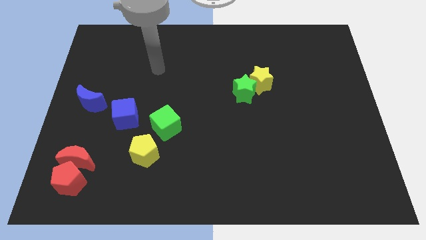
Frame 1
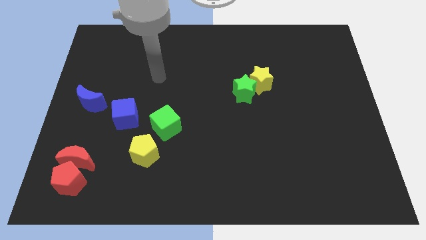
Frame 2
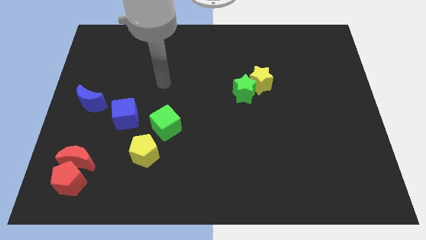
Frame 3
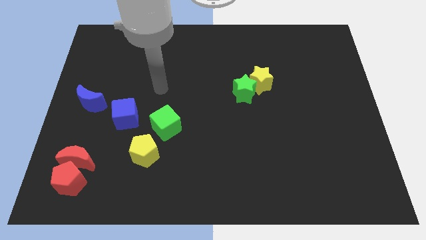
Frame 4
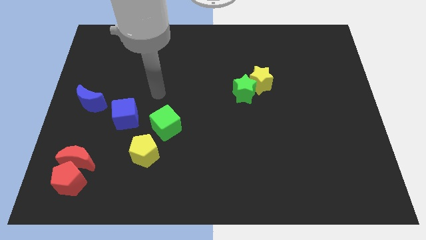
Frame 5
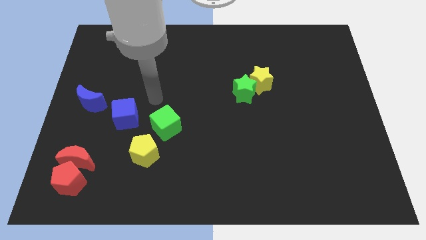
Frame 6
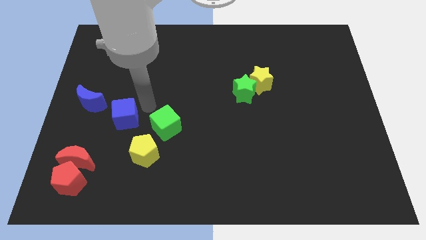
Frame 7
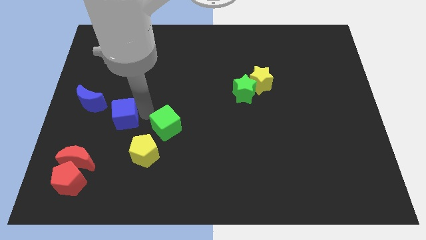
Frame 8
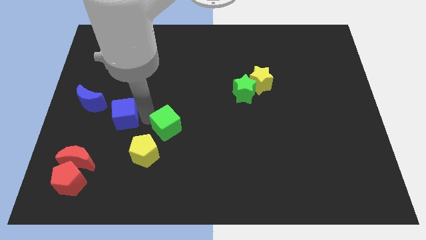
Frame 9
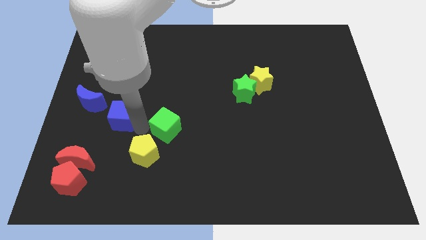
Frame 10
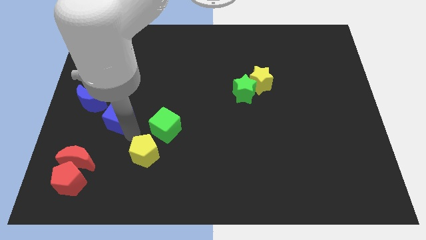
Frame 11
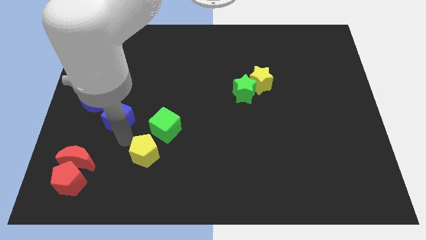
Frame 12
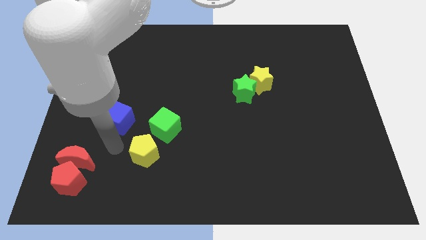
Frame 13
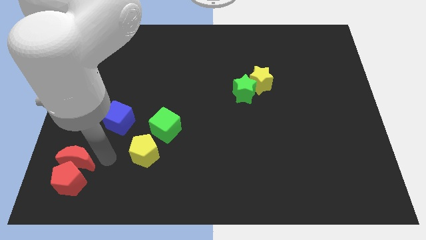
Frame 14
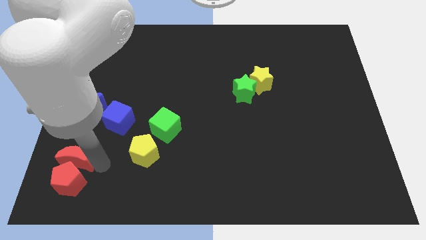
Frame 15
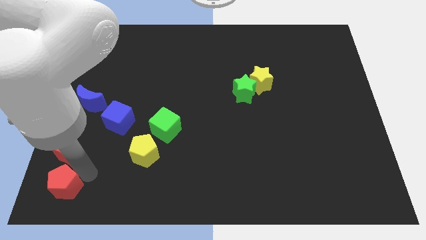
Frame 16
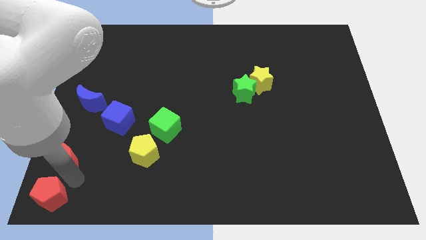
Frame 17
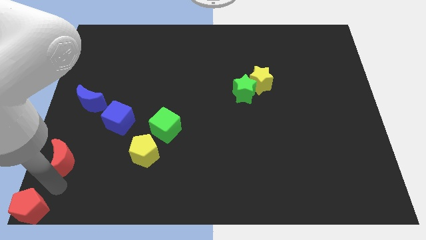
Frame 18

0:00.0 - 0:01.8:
pull the red moon apart from the red pentagon

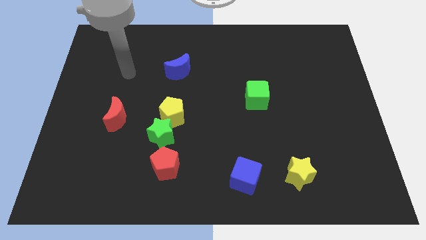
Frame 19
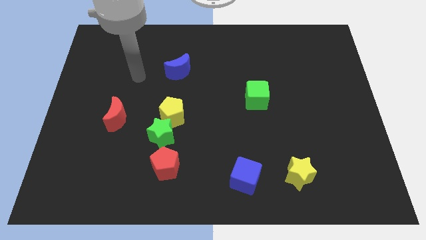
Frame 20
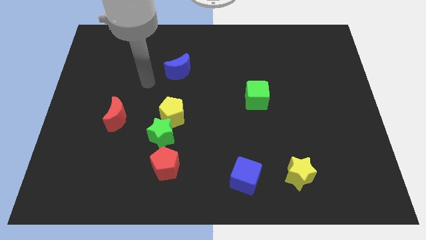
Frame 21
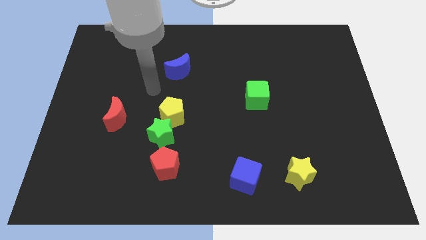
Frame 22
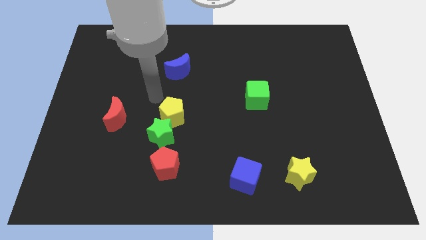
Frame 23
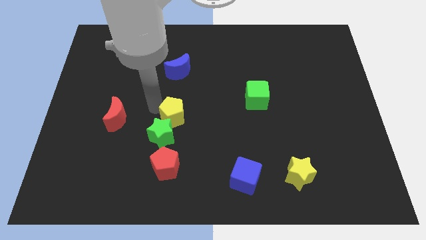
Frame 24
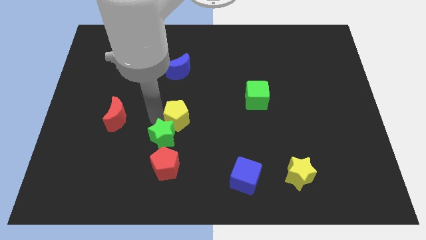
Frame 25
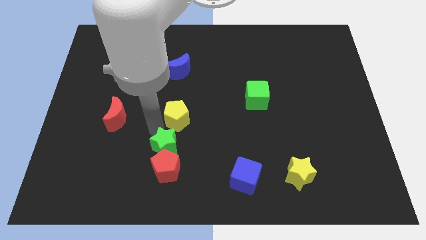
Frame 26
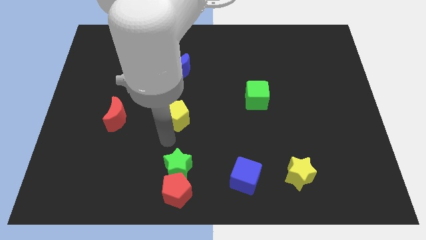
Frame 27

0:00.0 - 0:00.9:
move the yellow pentagon away from the green star

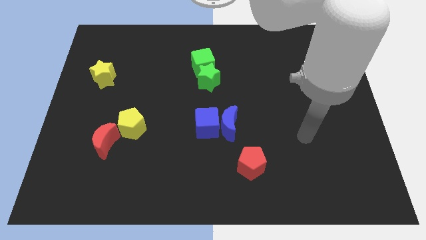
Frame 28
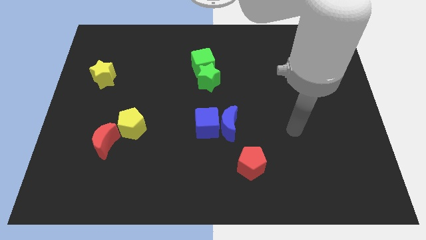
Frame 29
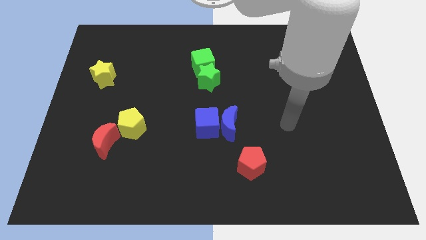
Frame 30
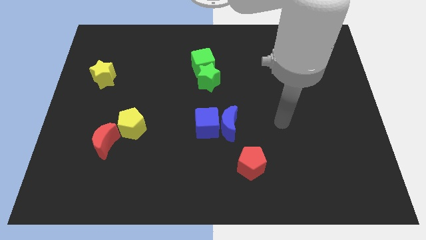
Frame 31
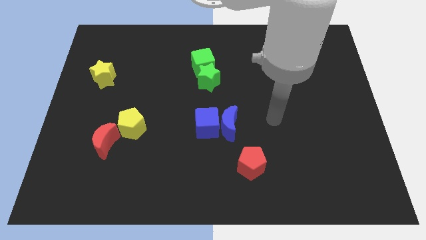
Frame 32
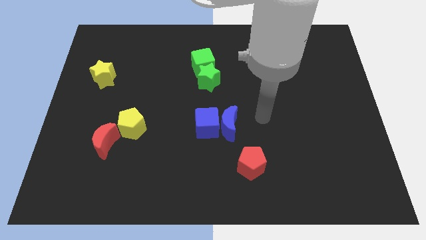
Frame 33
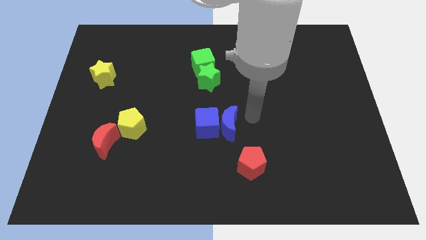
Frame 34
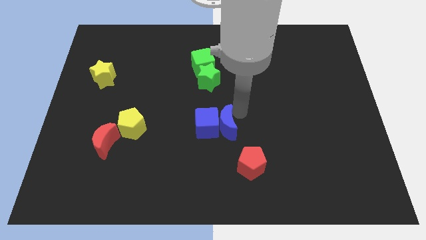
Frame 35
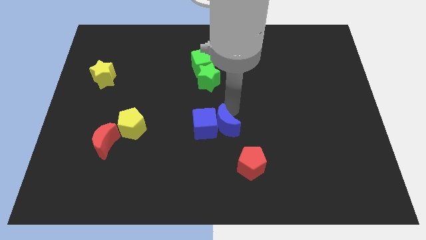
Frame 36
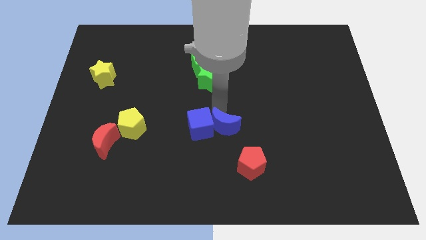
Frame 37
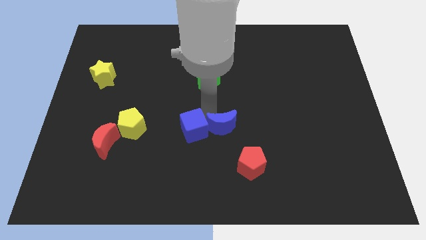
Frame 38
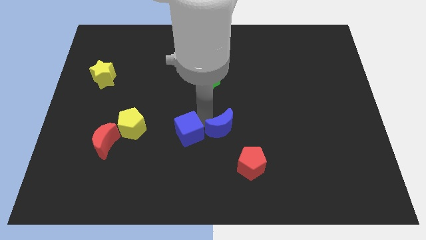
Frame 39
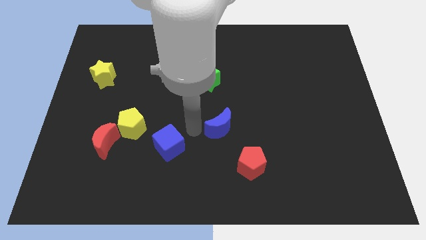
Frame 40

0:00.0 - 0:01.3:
move the blue moon away from the blue cube

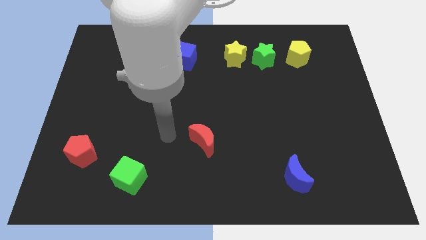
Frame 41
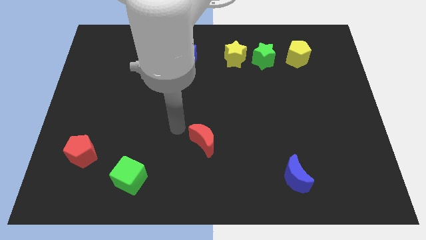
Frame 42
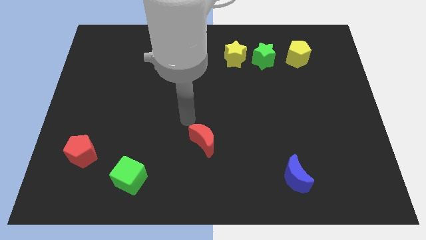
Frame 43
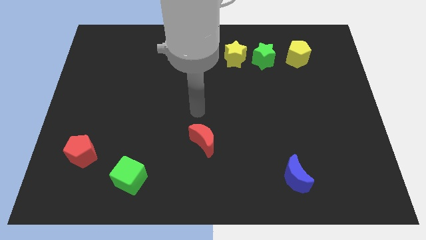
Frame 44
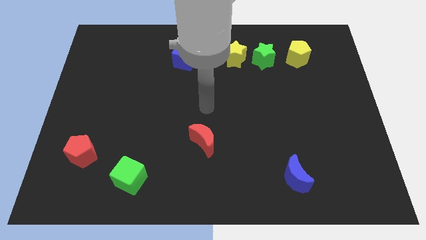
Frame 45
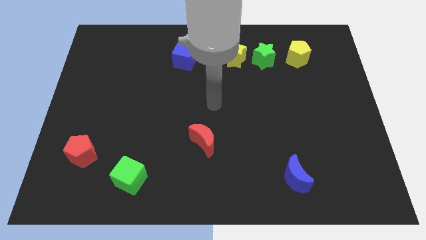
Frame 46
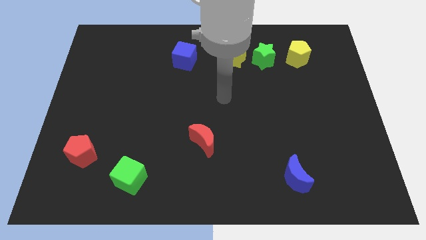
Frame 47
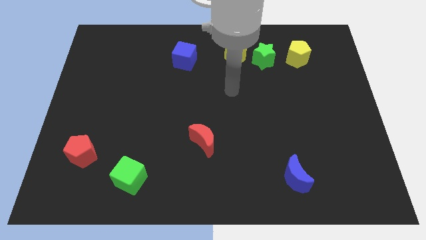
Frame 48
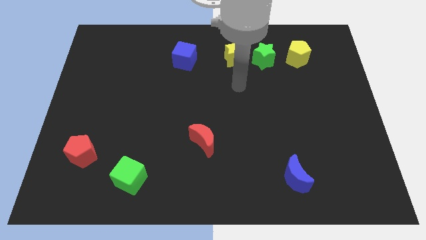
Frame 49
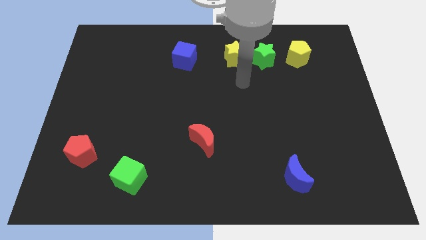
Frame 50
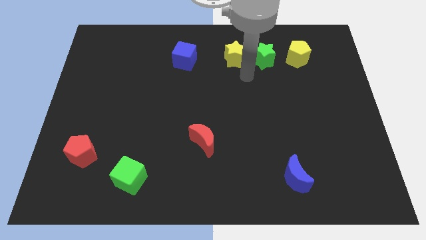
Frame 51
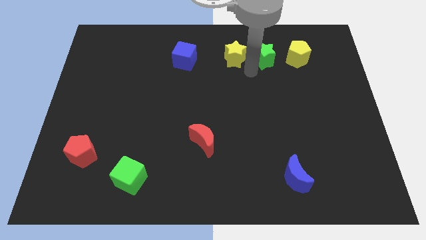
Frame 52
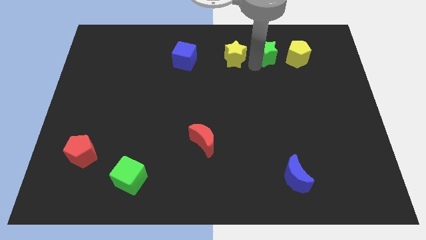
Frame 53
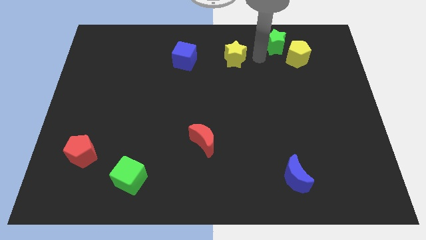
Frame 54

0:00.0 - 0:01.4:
move the yellow star away from the green star

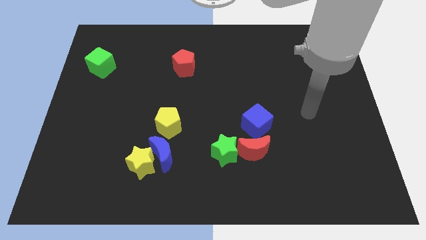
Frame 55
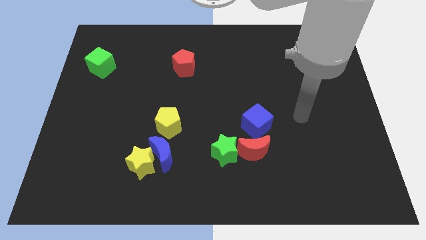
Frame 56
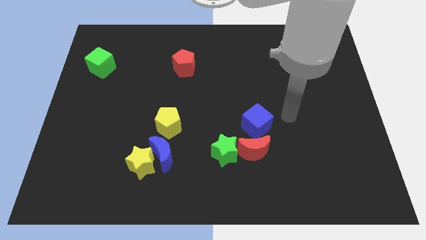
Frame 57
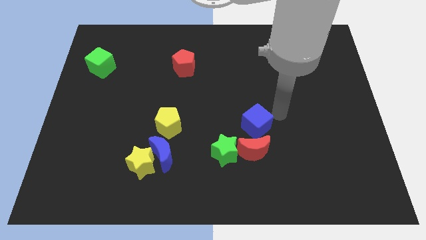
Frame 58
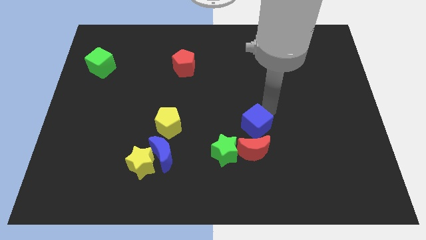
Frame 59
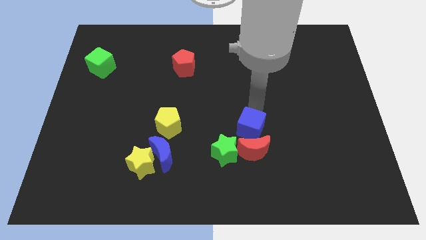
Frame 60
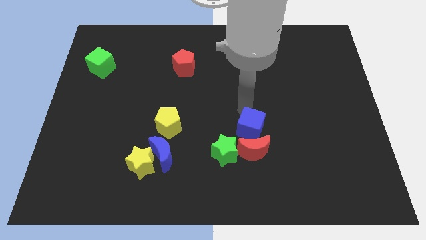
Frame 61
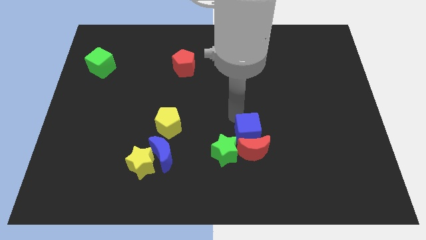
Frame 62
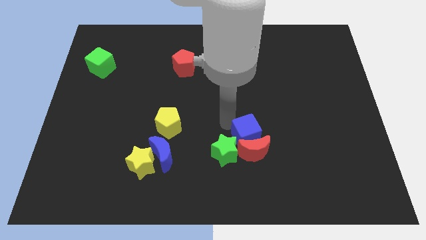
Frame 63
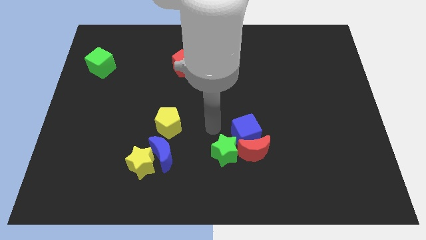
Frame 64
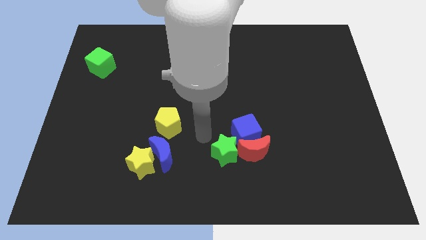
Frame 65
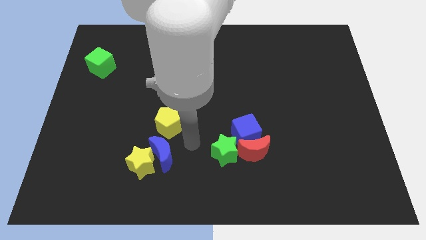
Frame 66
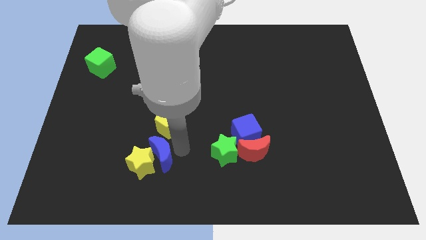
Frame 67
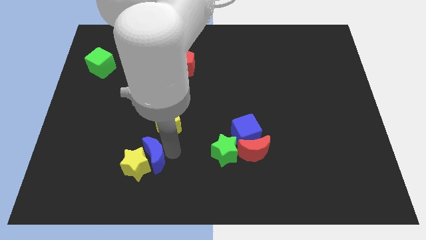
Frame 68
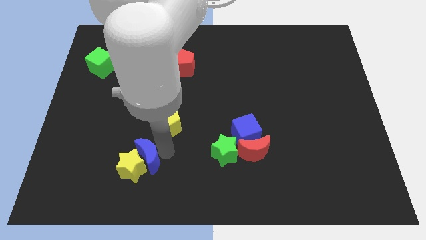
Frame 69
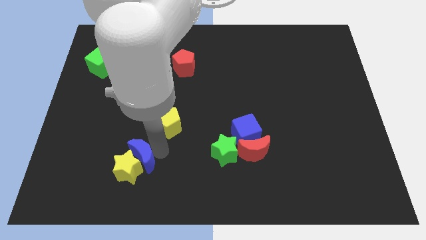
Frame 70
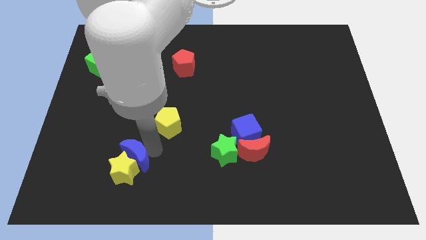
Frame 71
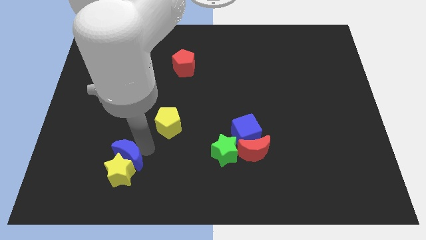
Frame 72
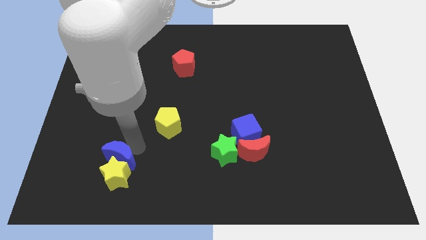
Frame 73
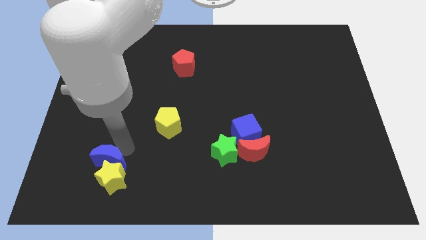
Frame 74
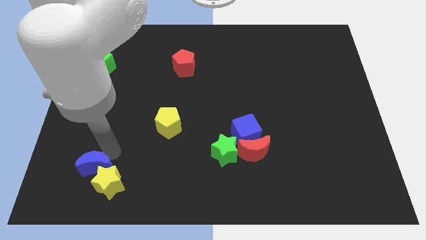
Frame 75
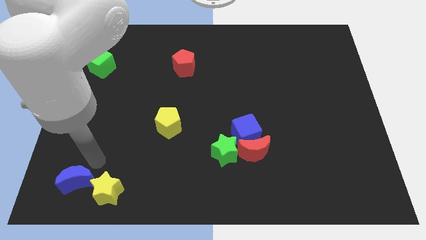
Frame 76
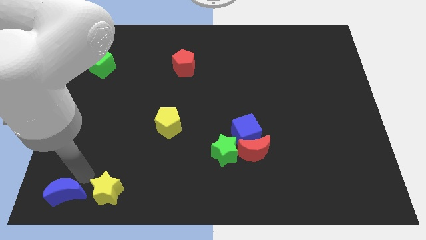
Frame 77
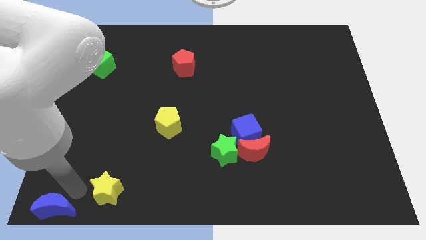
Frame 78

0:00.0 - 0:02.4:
move the yellow star away from the blue moon

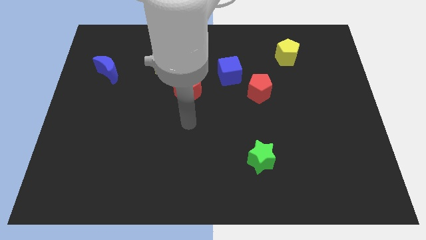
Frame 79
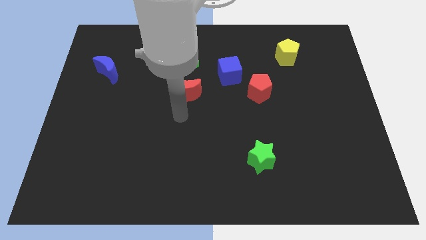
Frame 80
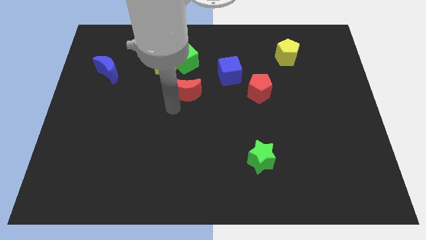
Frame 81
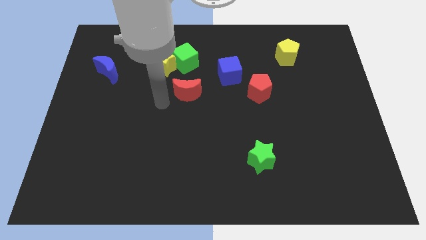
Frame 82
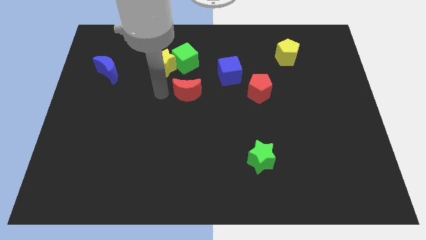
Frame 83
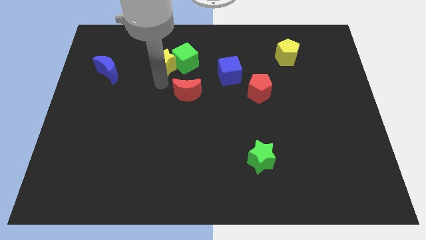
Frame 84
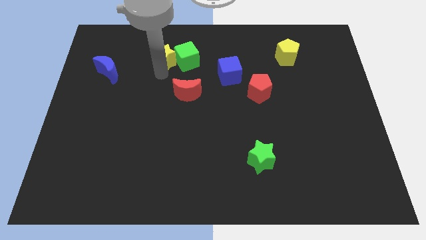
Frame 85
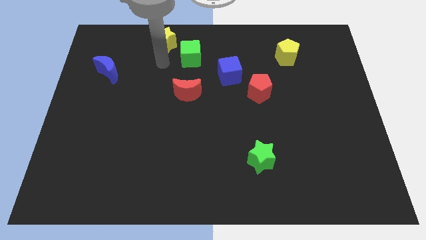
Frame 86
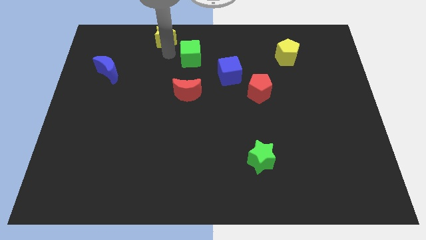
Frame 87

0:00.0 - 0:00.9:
move the green cube away from the yellow star

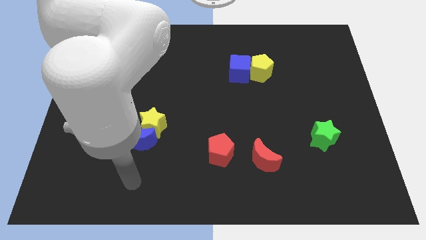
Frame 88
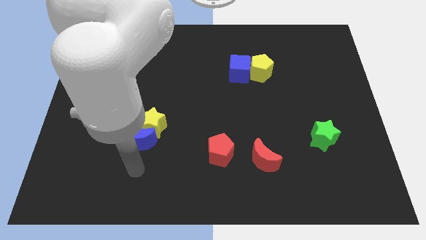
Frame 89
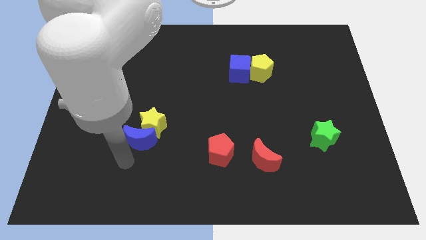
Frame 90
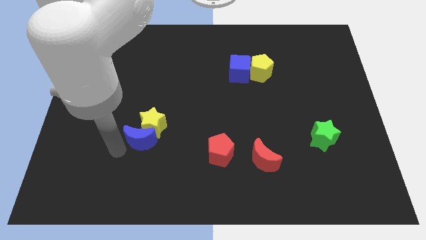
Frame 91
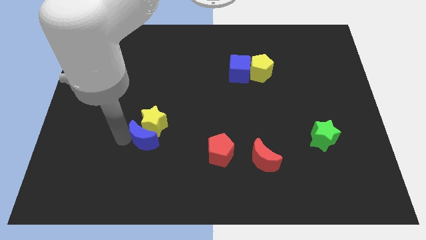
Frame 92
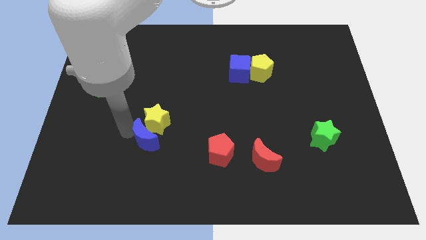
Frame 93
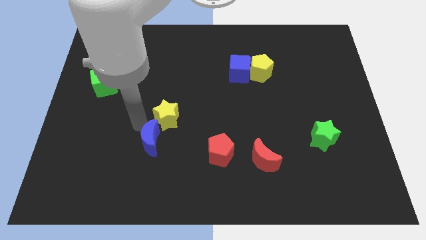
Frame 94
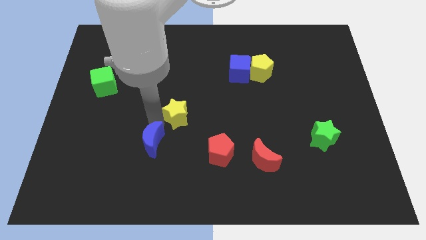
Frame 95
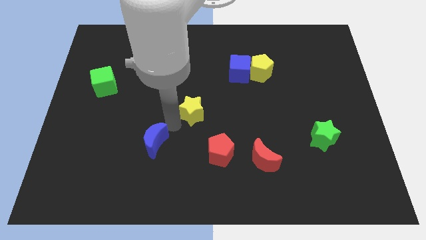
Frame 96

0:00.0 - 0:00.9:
separate the blue moon from the yellow star
